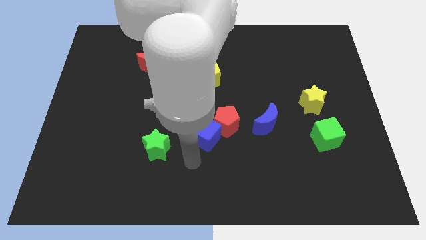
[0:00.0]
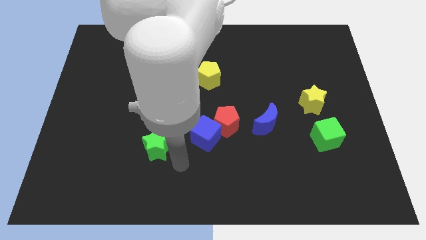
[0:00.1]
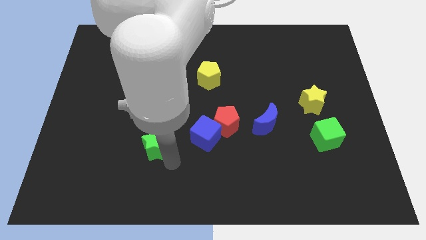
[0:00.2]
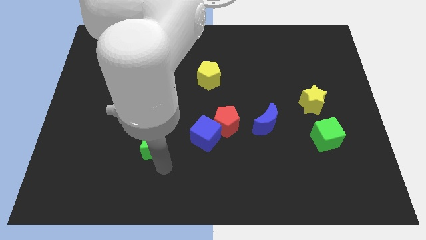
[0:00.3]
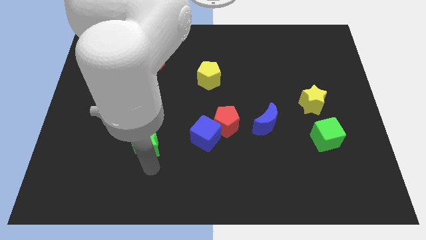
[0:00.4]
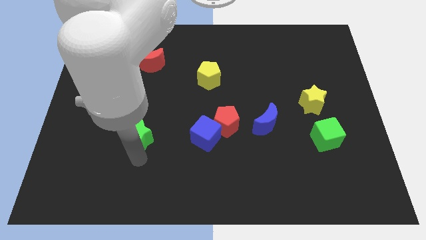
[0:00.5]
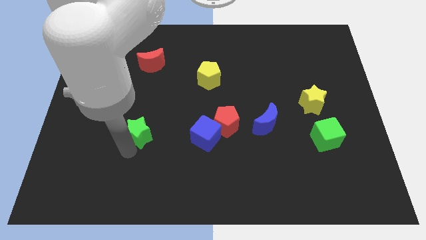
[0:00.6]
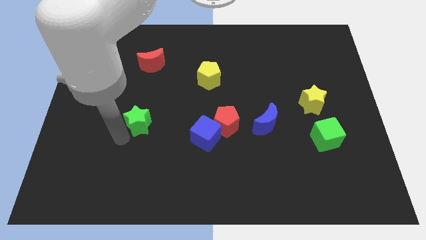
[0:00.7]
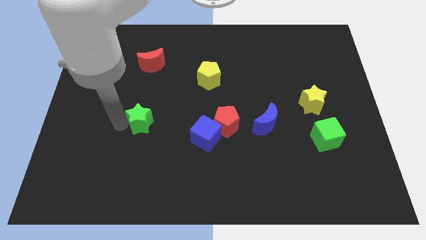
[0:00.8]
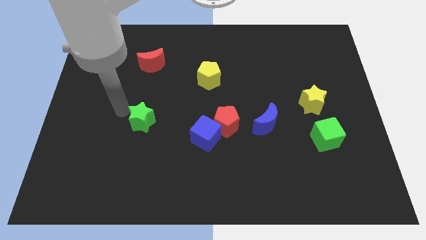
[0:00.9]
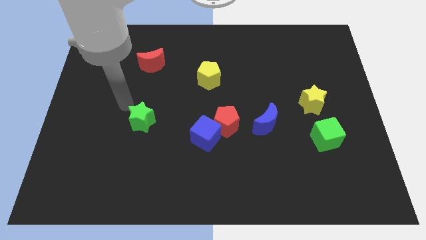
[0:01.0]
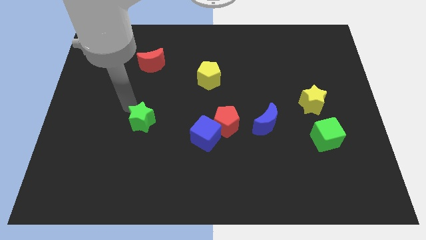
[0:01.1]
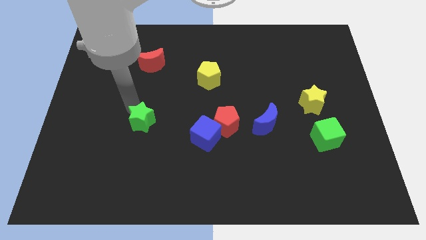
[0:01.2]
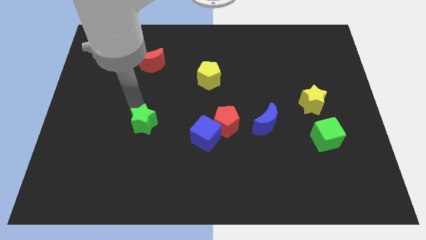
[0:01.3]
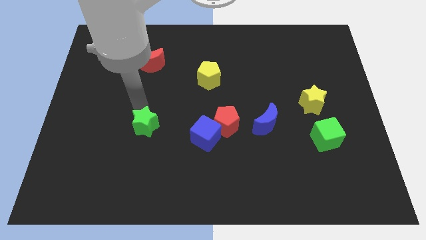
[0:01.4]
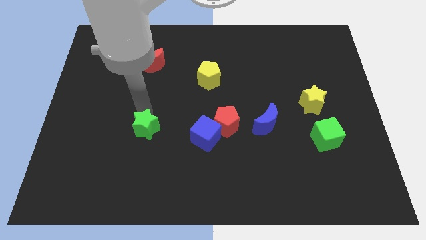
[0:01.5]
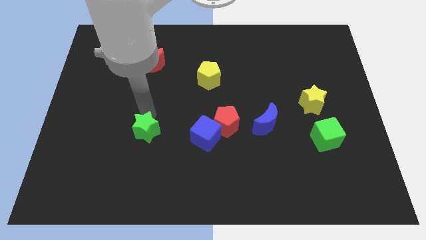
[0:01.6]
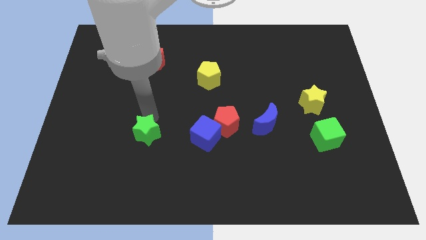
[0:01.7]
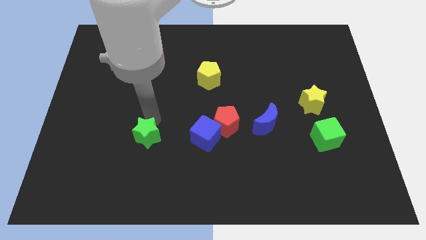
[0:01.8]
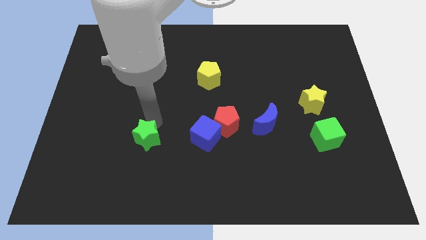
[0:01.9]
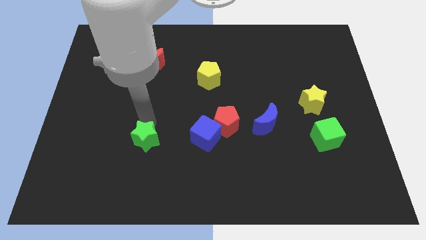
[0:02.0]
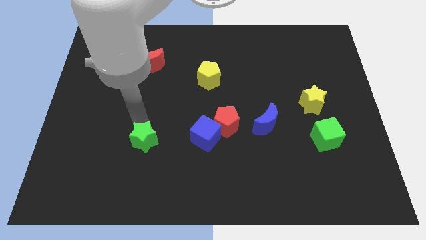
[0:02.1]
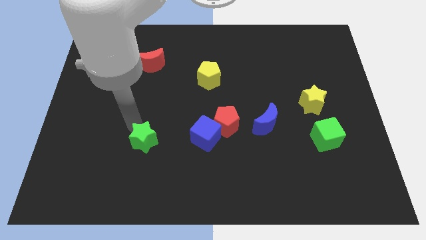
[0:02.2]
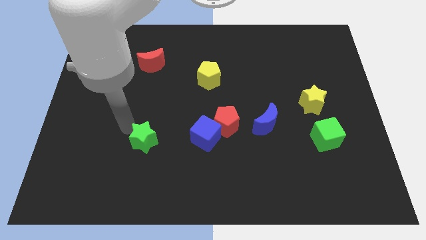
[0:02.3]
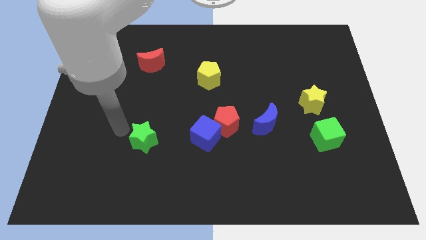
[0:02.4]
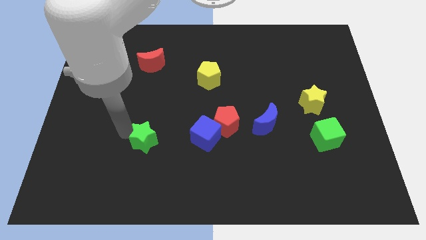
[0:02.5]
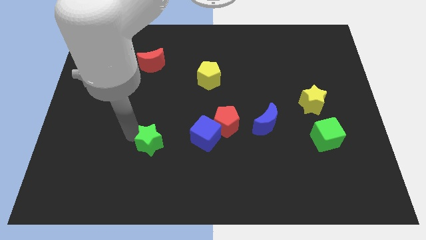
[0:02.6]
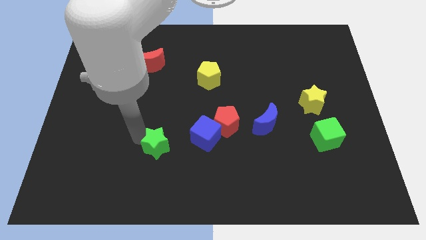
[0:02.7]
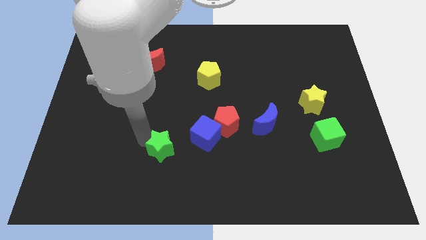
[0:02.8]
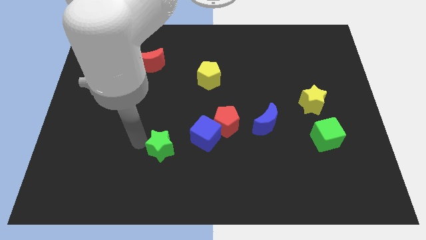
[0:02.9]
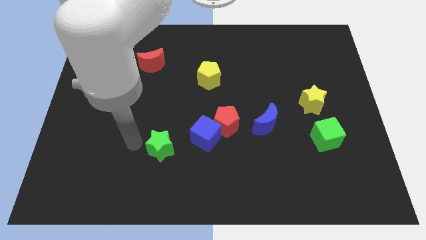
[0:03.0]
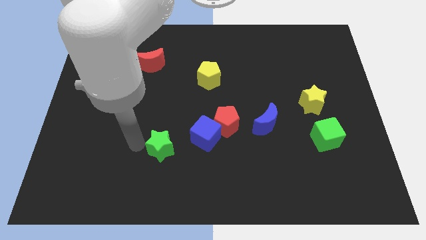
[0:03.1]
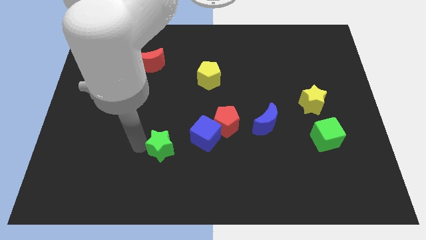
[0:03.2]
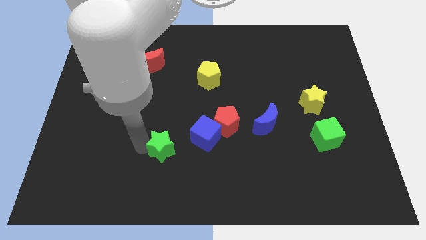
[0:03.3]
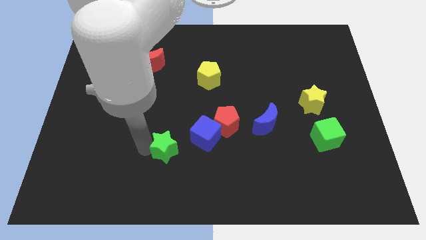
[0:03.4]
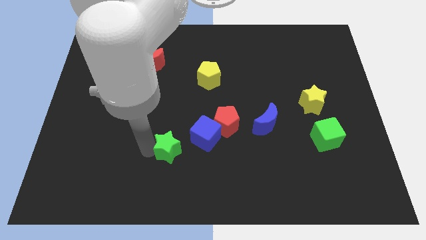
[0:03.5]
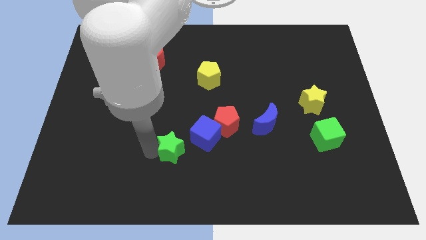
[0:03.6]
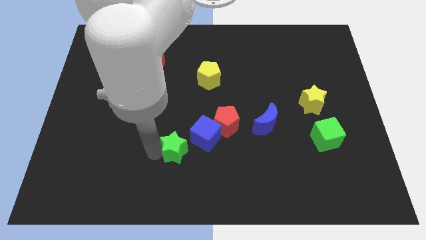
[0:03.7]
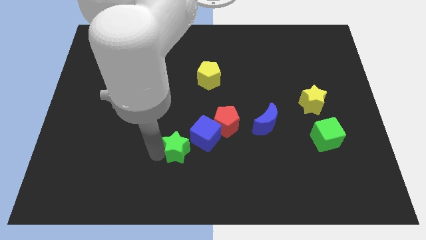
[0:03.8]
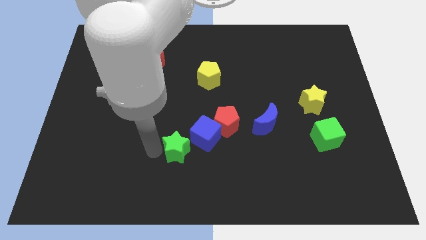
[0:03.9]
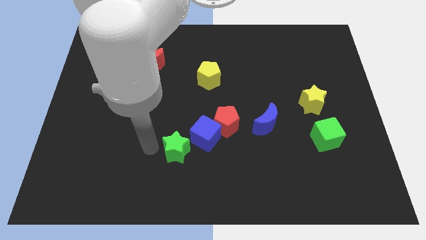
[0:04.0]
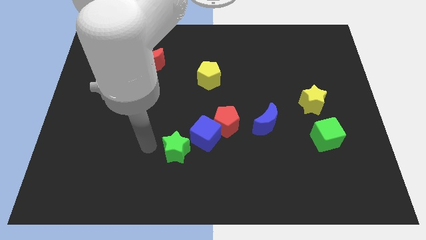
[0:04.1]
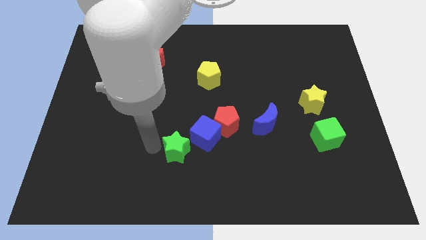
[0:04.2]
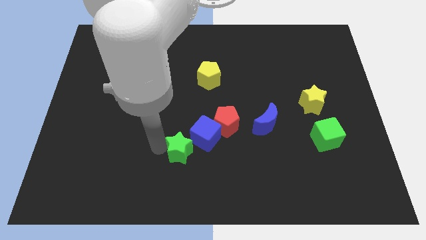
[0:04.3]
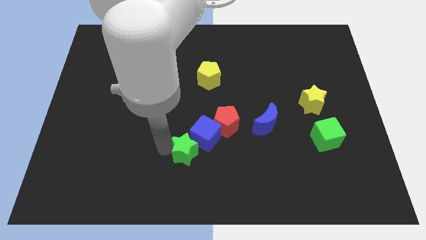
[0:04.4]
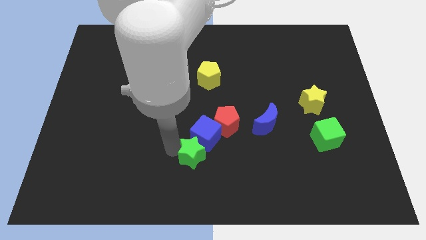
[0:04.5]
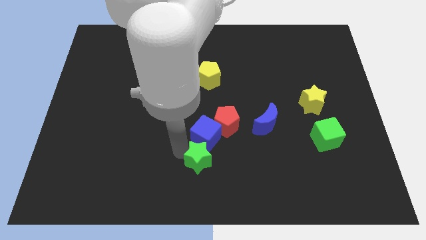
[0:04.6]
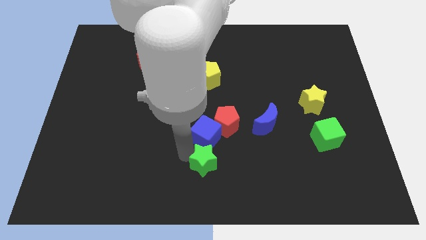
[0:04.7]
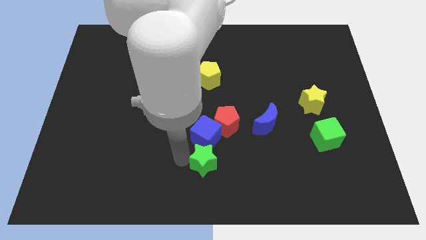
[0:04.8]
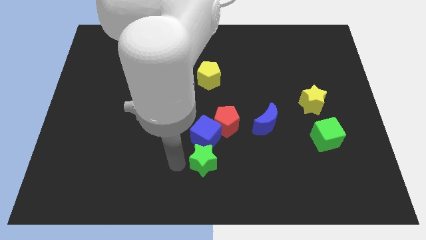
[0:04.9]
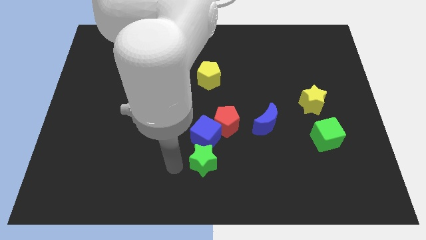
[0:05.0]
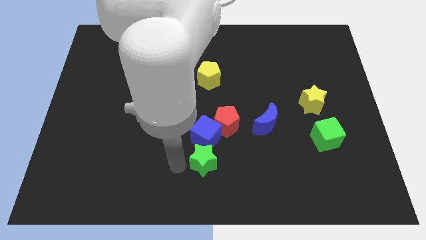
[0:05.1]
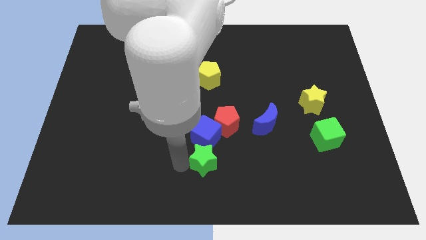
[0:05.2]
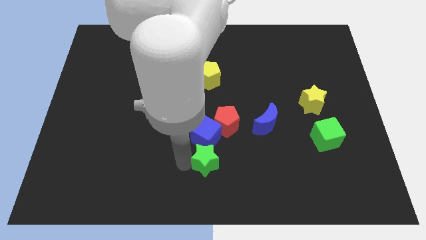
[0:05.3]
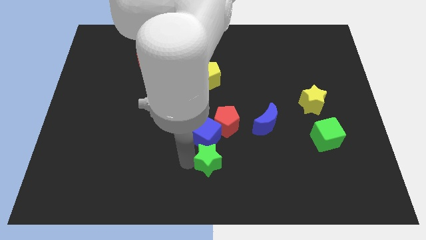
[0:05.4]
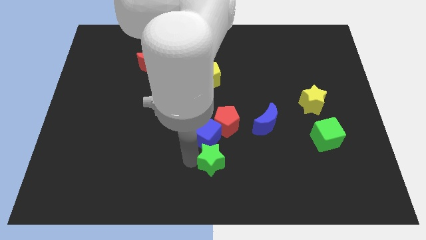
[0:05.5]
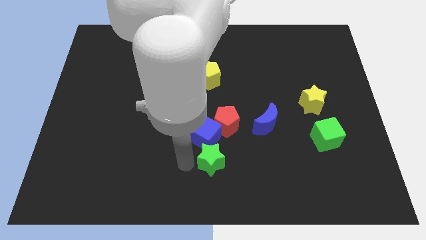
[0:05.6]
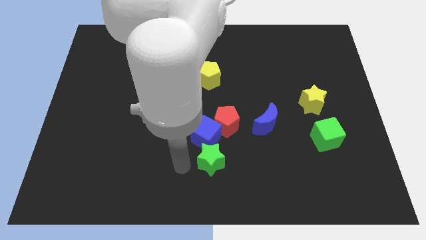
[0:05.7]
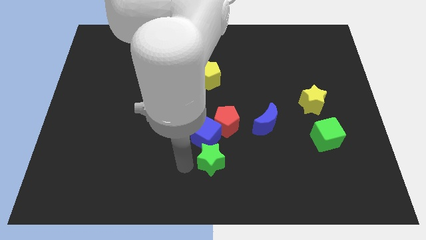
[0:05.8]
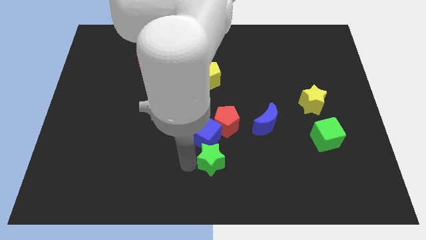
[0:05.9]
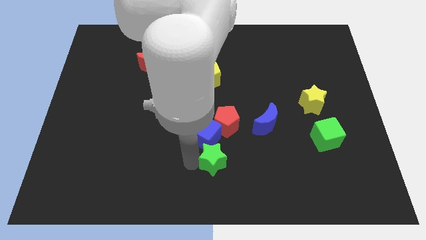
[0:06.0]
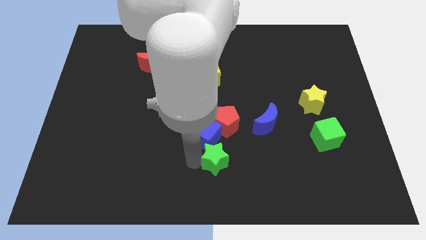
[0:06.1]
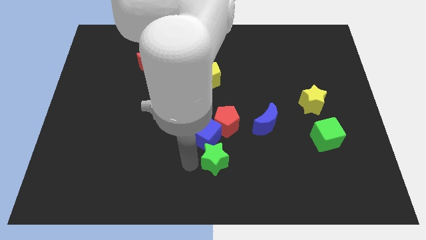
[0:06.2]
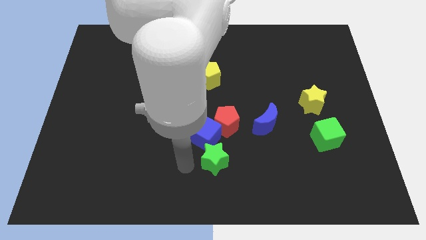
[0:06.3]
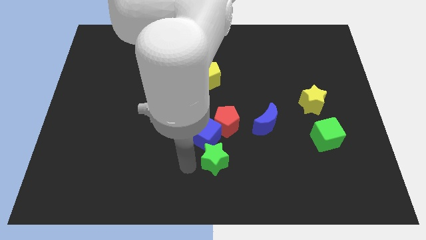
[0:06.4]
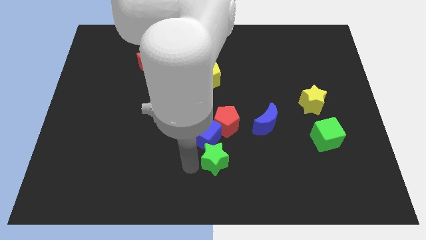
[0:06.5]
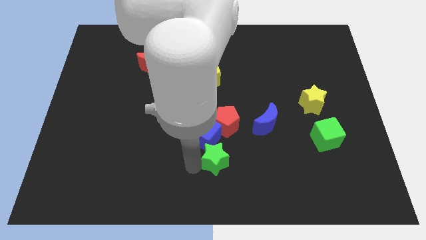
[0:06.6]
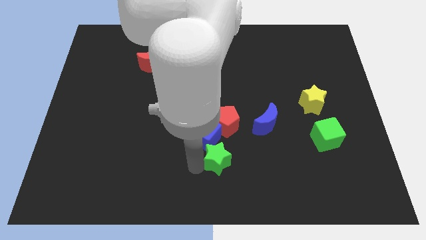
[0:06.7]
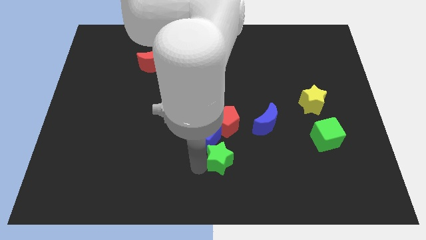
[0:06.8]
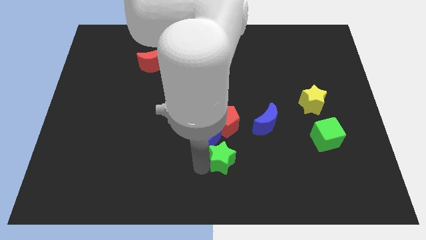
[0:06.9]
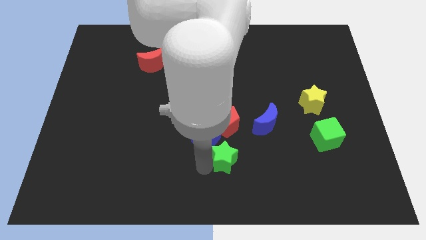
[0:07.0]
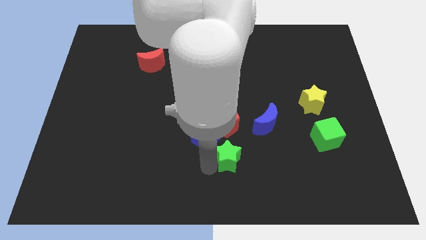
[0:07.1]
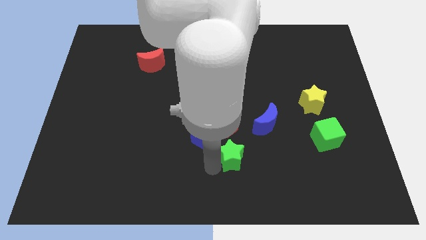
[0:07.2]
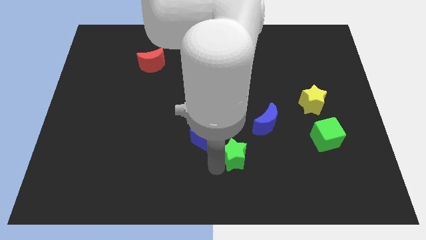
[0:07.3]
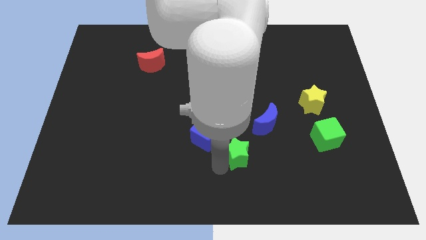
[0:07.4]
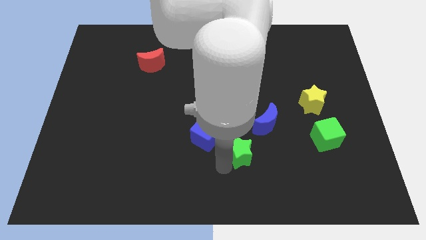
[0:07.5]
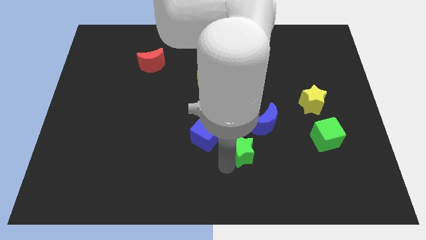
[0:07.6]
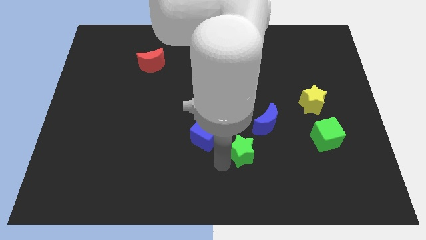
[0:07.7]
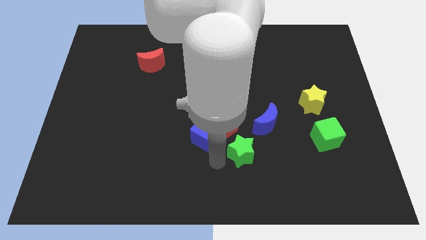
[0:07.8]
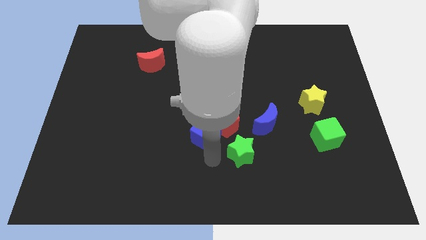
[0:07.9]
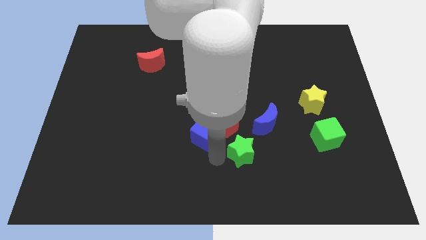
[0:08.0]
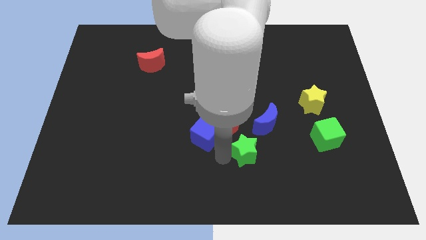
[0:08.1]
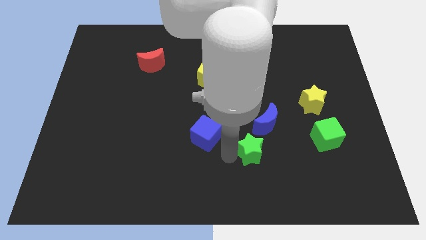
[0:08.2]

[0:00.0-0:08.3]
move the green star right
